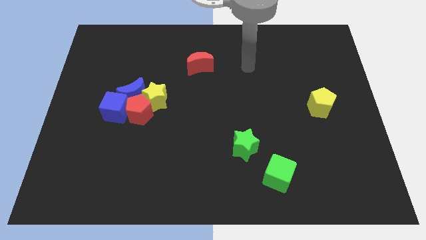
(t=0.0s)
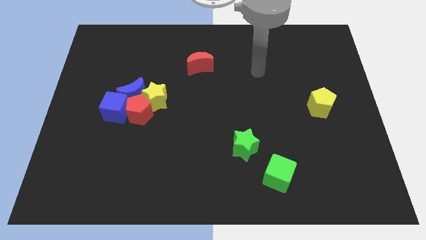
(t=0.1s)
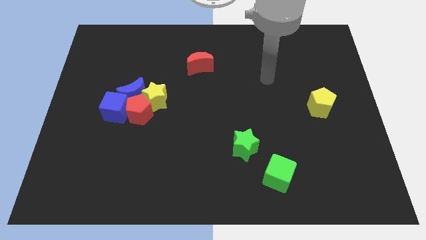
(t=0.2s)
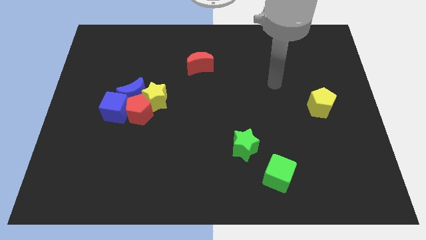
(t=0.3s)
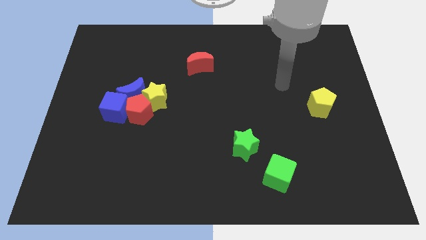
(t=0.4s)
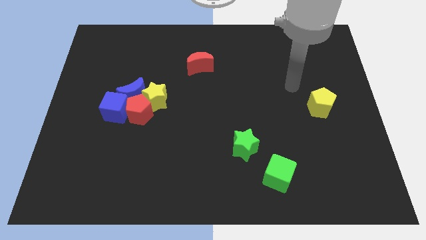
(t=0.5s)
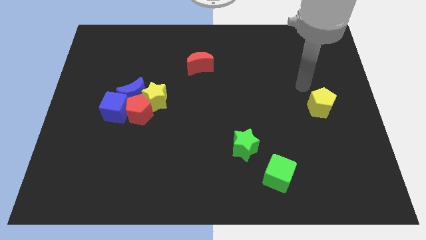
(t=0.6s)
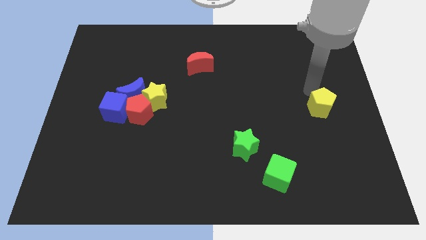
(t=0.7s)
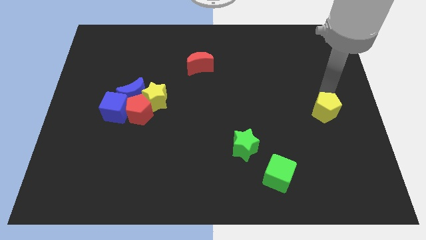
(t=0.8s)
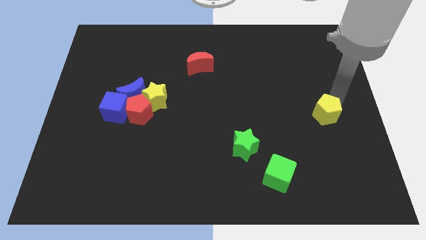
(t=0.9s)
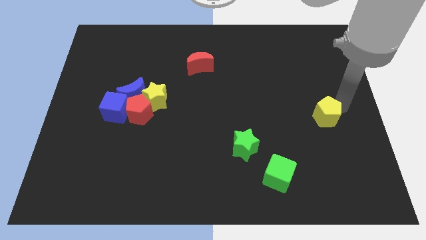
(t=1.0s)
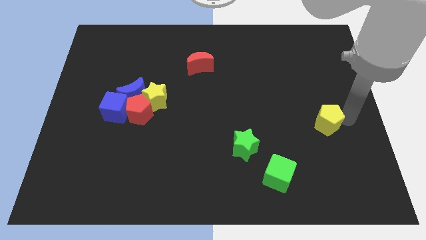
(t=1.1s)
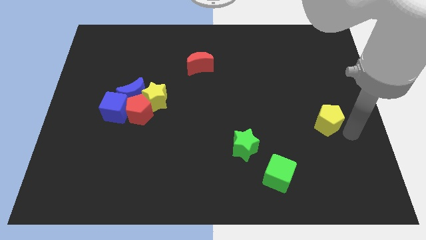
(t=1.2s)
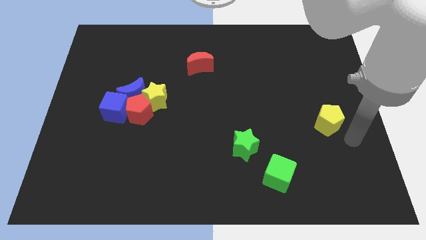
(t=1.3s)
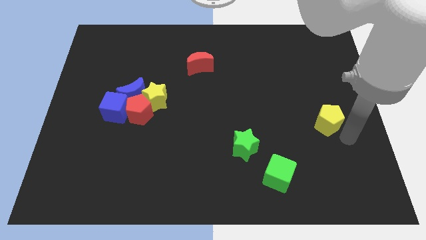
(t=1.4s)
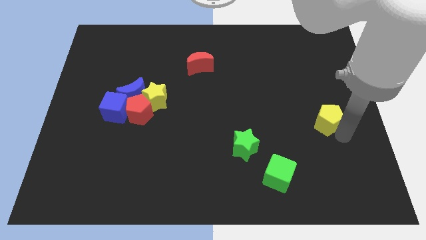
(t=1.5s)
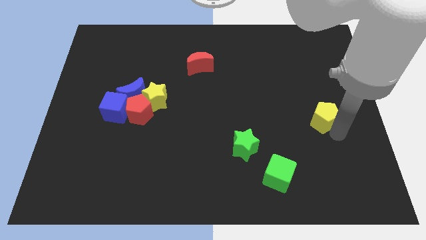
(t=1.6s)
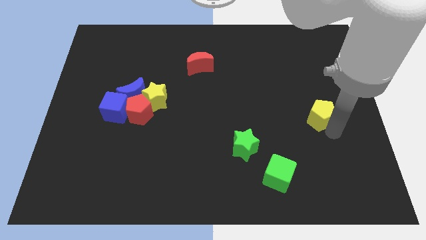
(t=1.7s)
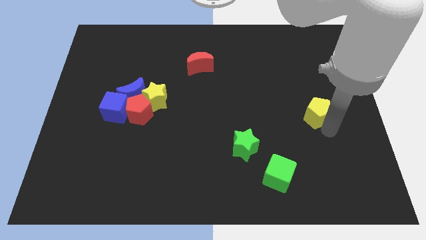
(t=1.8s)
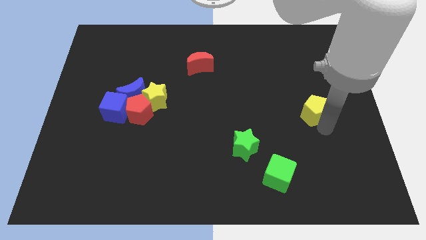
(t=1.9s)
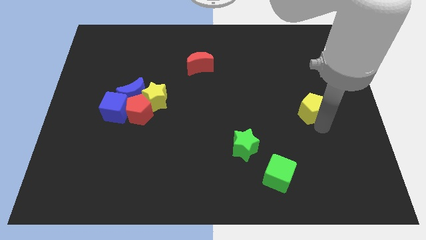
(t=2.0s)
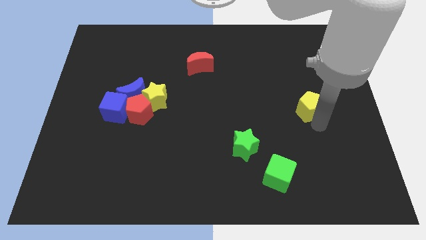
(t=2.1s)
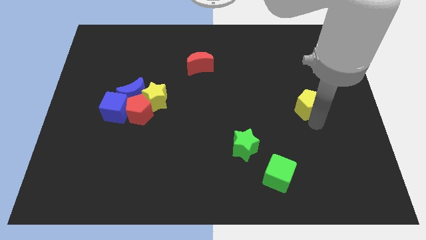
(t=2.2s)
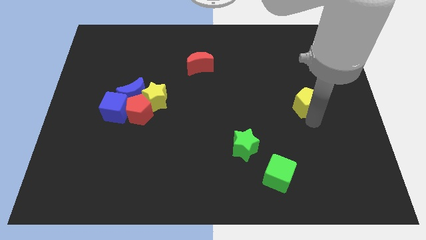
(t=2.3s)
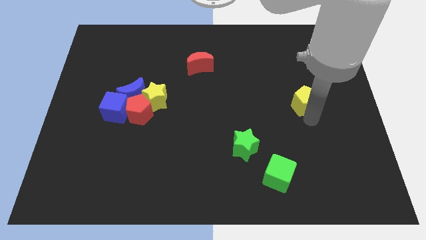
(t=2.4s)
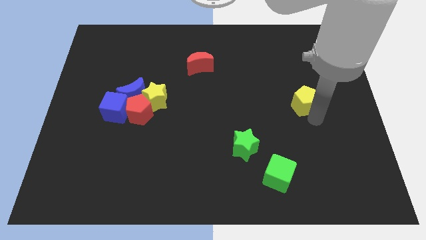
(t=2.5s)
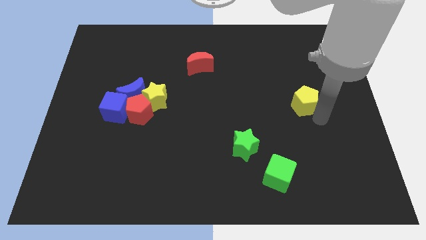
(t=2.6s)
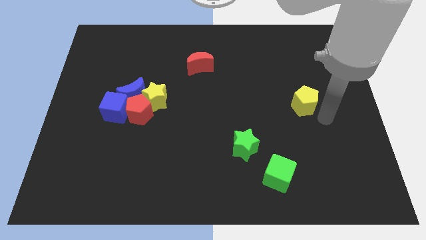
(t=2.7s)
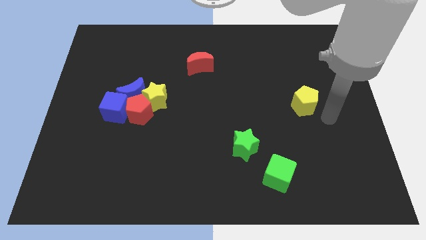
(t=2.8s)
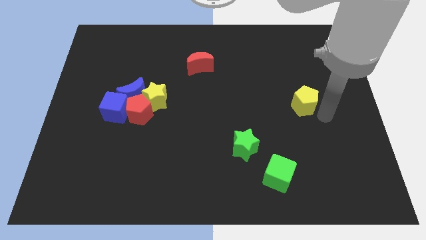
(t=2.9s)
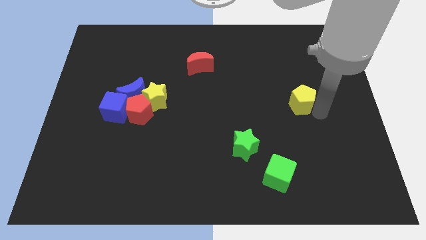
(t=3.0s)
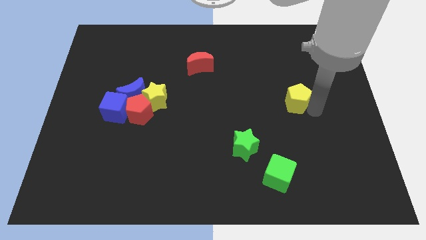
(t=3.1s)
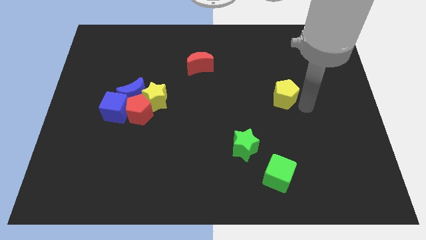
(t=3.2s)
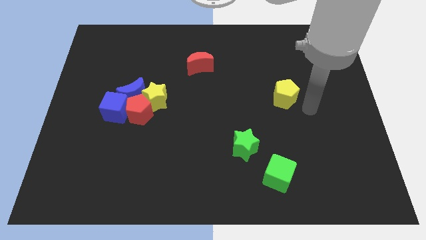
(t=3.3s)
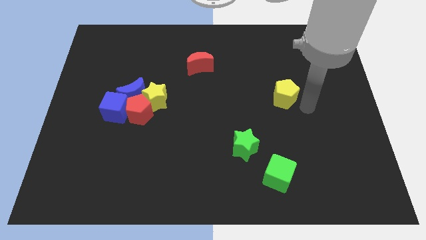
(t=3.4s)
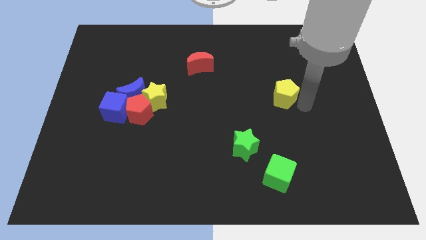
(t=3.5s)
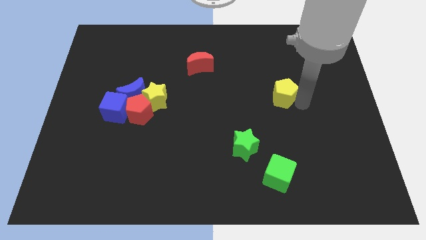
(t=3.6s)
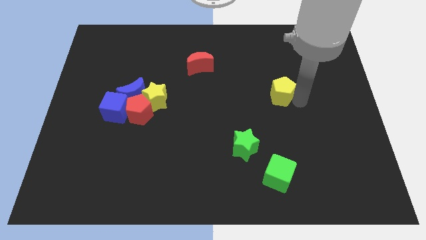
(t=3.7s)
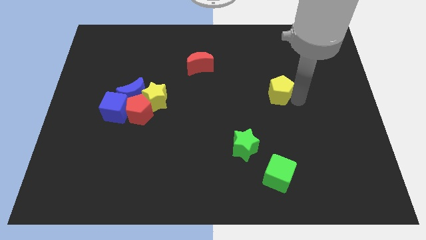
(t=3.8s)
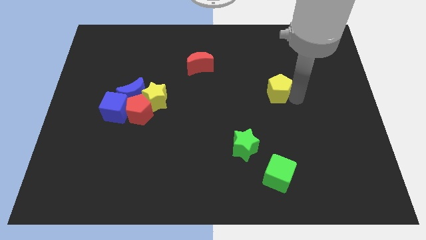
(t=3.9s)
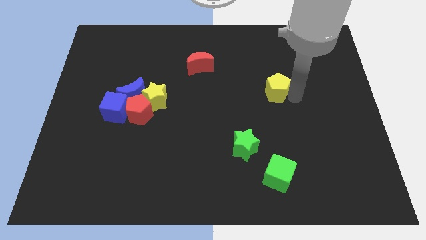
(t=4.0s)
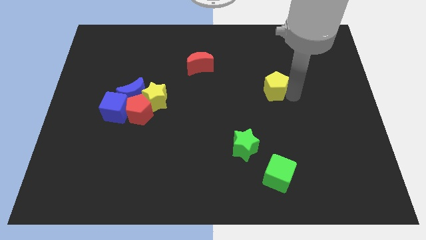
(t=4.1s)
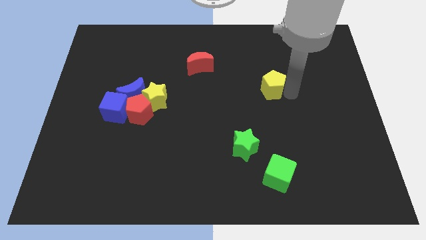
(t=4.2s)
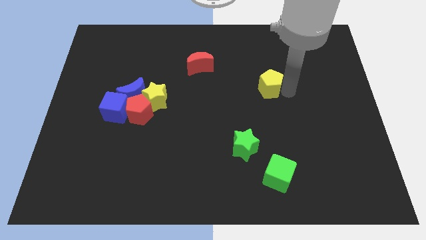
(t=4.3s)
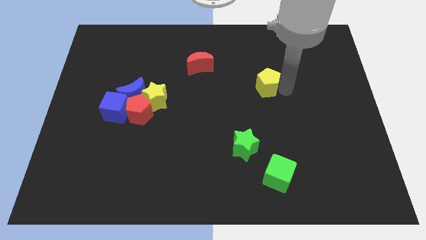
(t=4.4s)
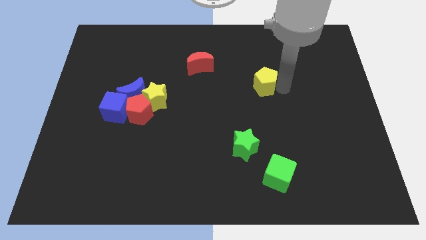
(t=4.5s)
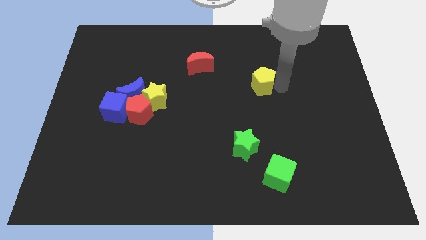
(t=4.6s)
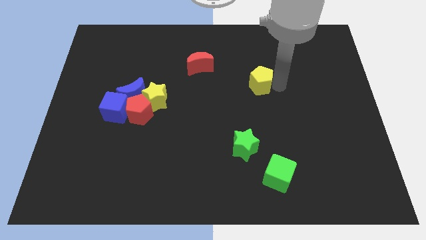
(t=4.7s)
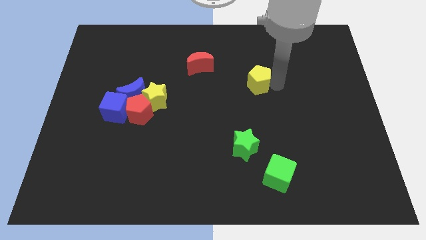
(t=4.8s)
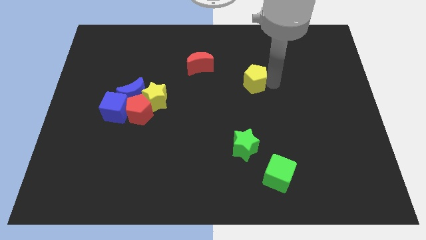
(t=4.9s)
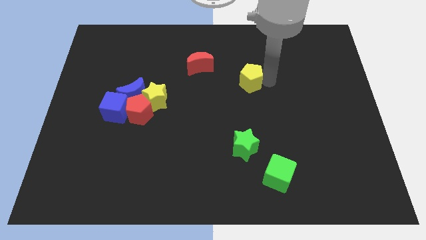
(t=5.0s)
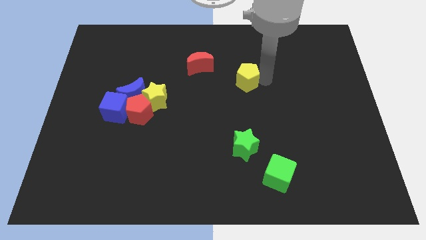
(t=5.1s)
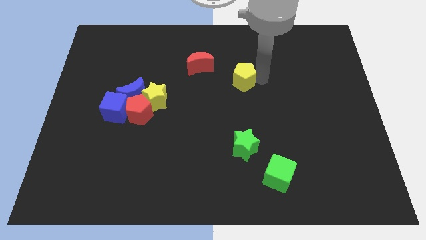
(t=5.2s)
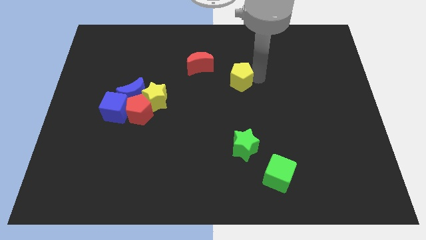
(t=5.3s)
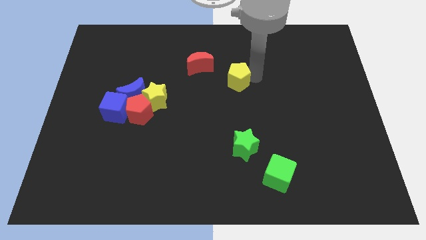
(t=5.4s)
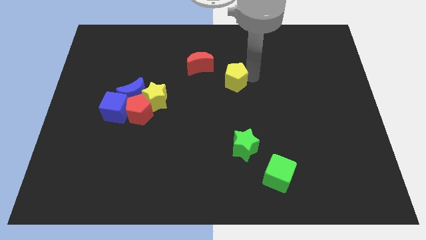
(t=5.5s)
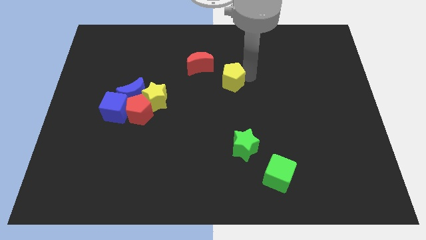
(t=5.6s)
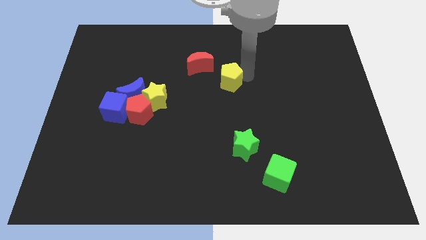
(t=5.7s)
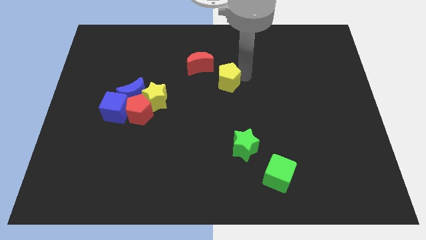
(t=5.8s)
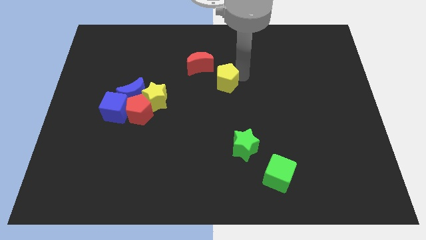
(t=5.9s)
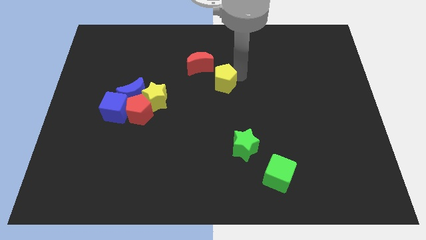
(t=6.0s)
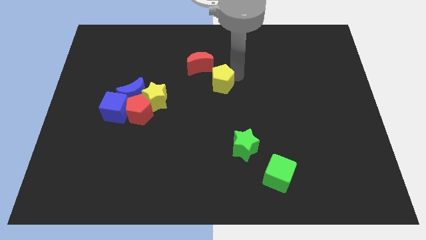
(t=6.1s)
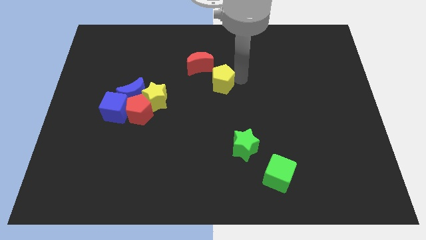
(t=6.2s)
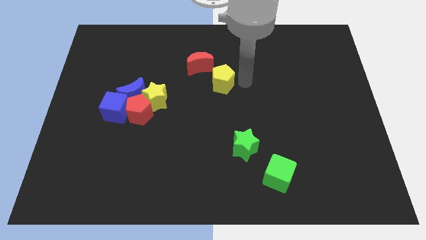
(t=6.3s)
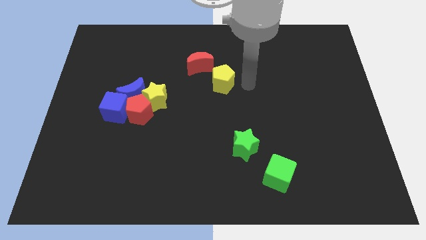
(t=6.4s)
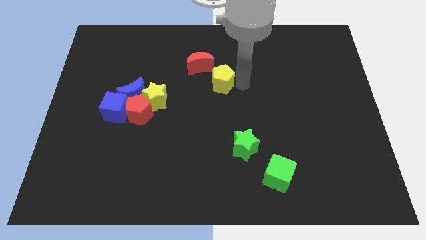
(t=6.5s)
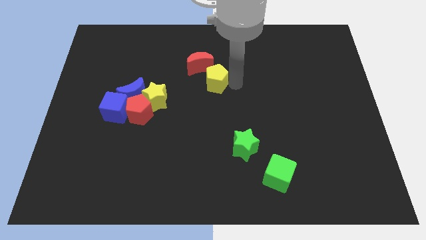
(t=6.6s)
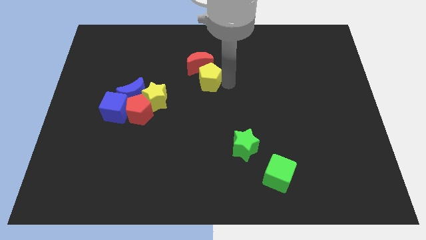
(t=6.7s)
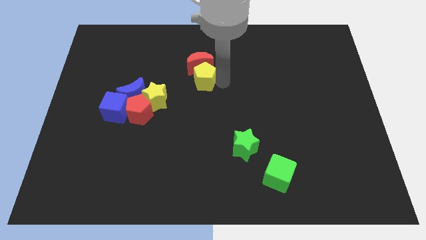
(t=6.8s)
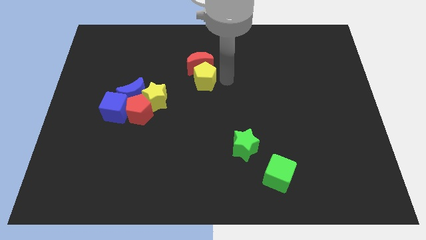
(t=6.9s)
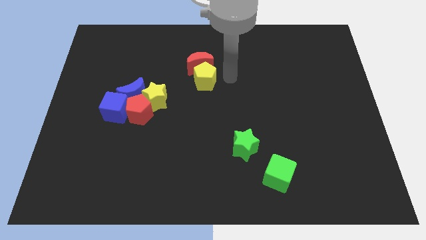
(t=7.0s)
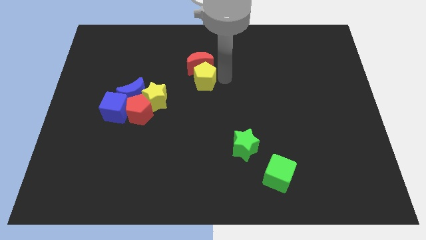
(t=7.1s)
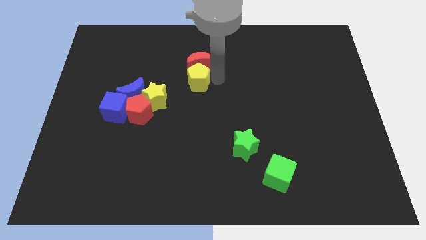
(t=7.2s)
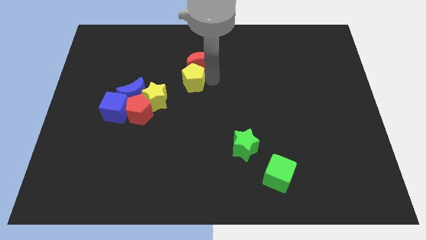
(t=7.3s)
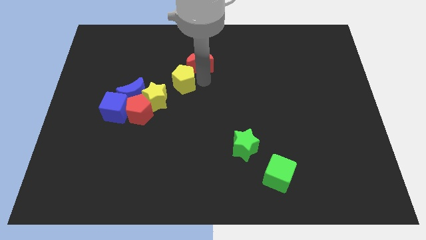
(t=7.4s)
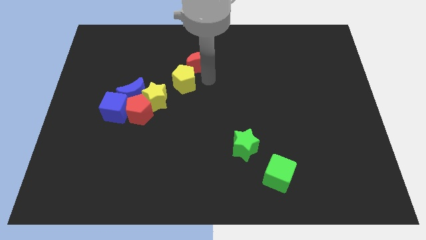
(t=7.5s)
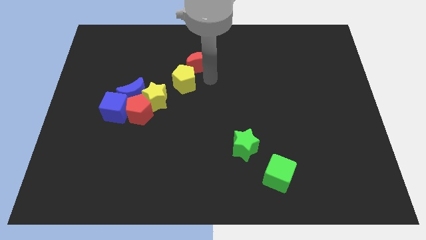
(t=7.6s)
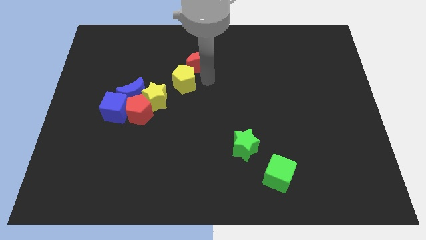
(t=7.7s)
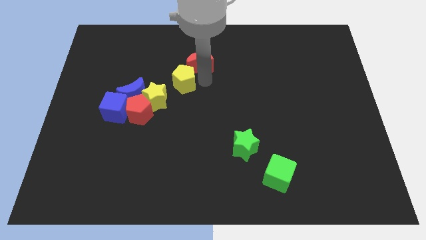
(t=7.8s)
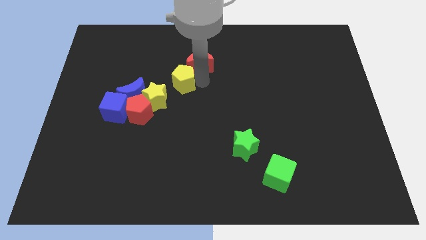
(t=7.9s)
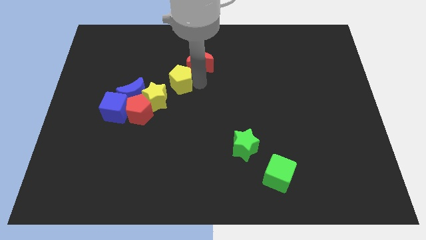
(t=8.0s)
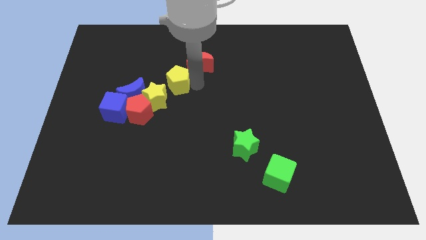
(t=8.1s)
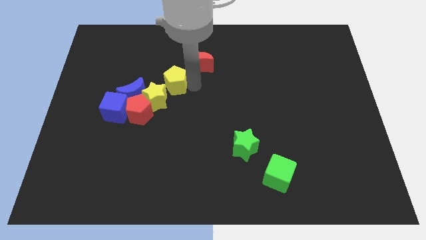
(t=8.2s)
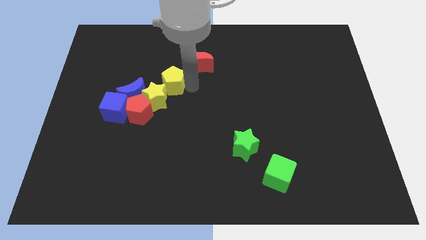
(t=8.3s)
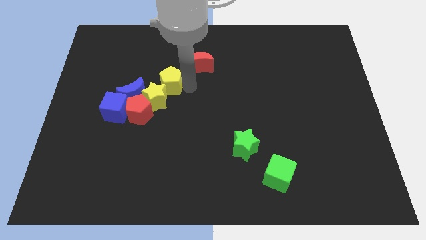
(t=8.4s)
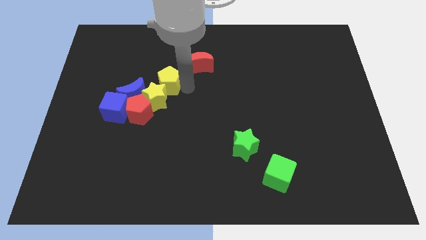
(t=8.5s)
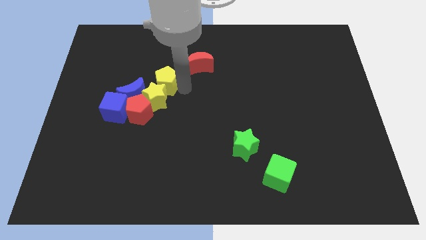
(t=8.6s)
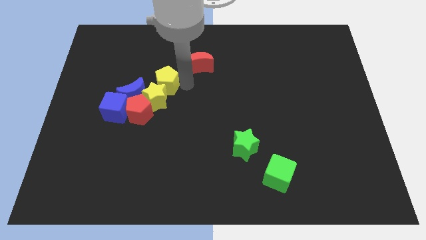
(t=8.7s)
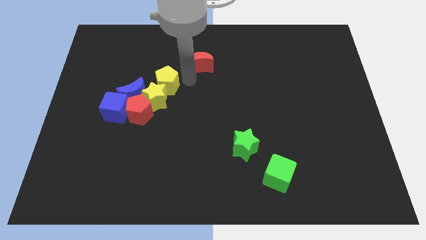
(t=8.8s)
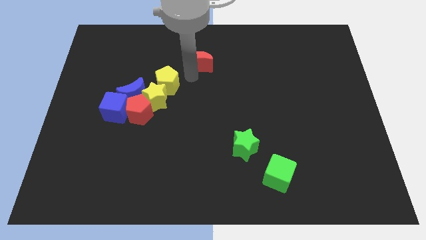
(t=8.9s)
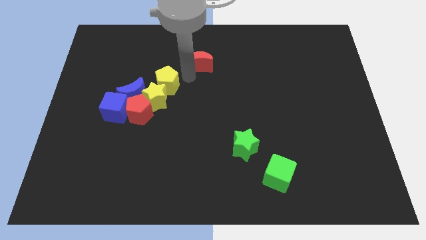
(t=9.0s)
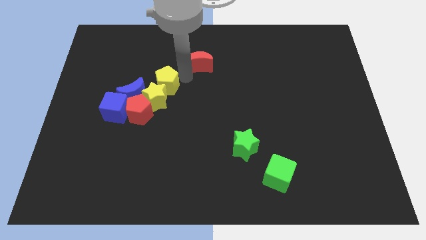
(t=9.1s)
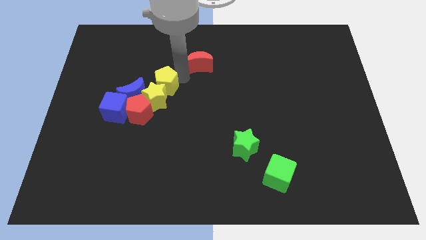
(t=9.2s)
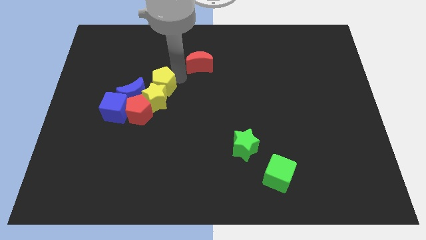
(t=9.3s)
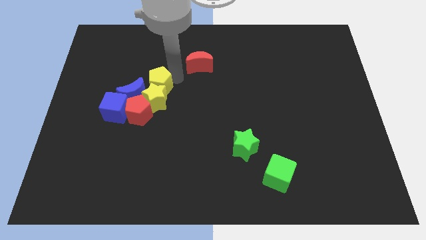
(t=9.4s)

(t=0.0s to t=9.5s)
slide the yellow pentagon to the top right side of the blue cube
